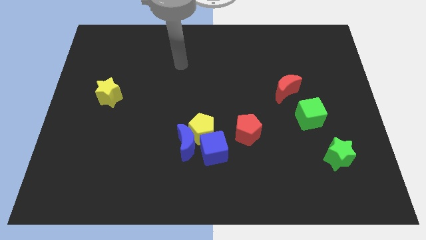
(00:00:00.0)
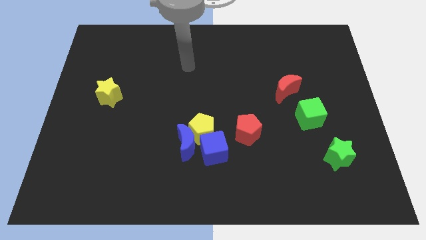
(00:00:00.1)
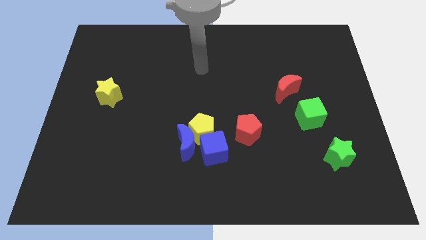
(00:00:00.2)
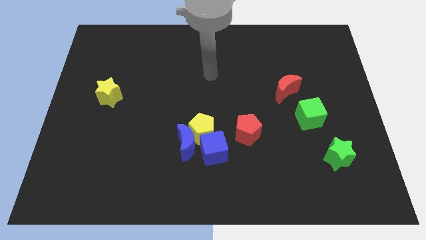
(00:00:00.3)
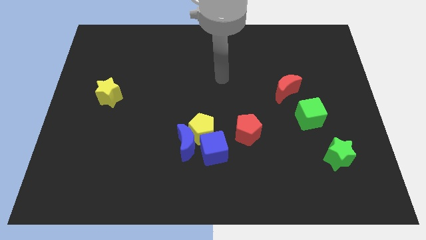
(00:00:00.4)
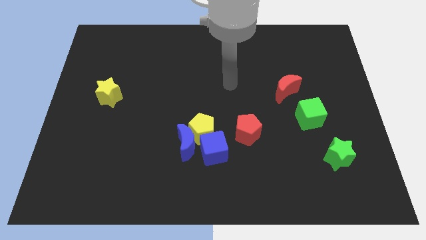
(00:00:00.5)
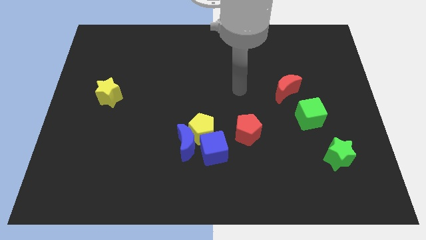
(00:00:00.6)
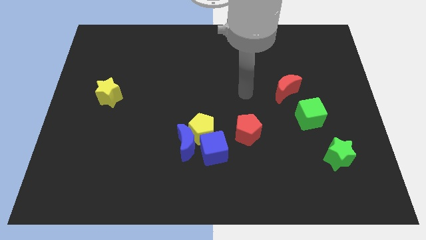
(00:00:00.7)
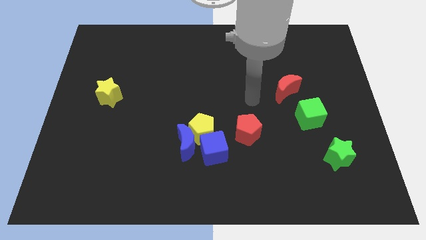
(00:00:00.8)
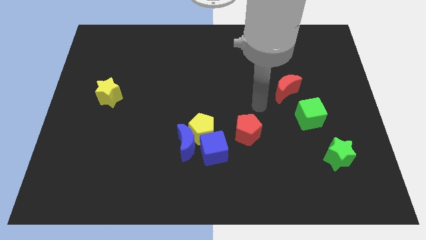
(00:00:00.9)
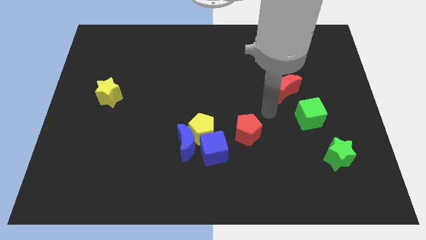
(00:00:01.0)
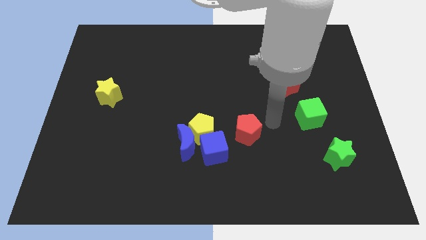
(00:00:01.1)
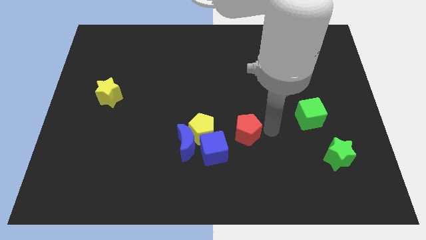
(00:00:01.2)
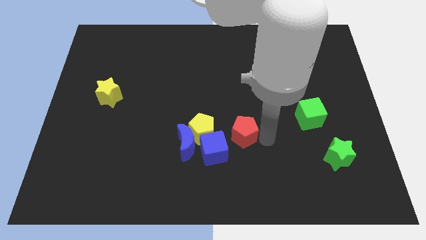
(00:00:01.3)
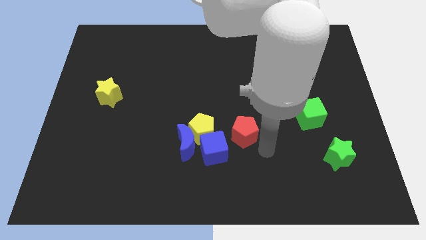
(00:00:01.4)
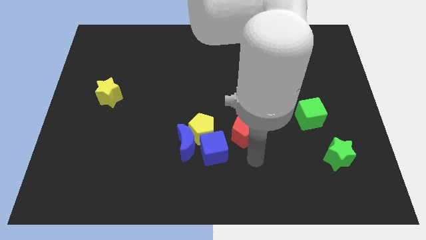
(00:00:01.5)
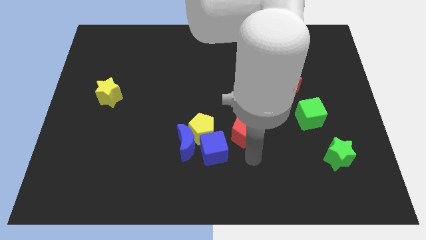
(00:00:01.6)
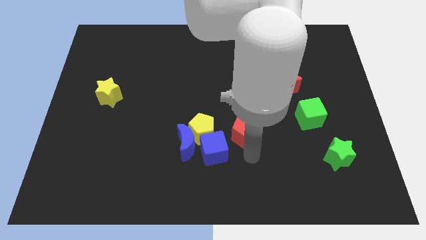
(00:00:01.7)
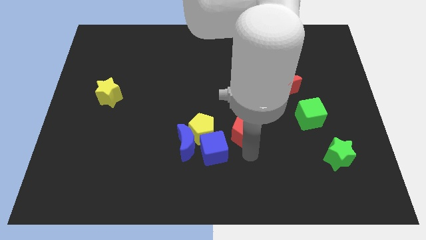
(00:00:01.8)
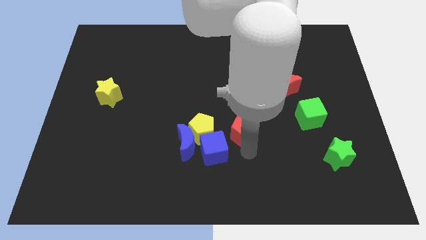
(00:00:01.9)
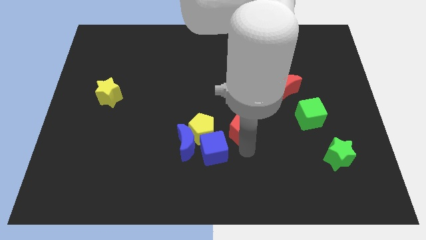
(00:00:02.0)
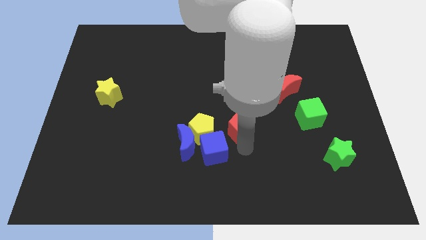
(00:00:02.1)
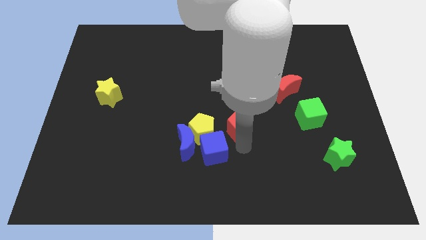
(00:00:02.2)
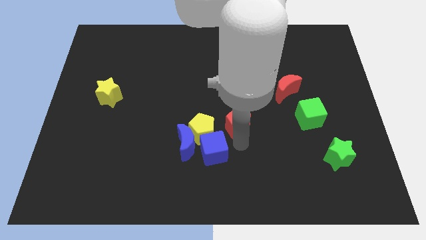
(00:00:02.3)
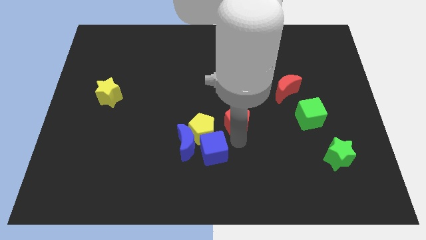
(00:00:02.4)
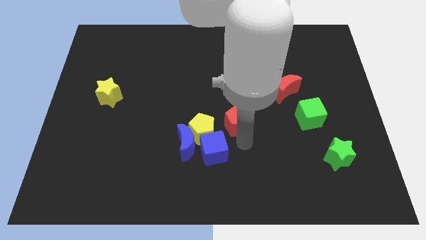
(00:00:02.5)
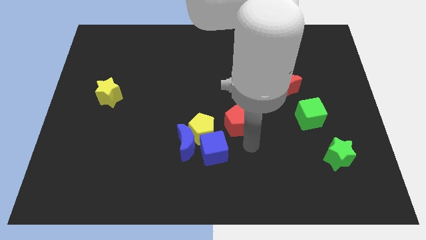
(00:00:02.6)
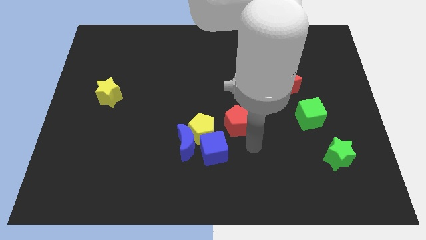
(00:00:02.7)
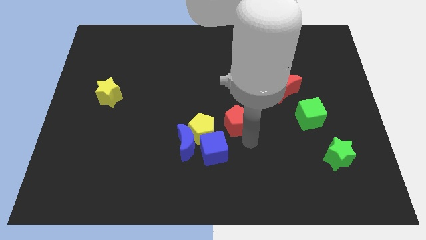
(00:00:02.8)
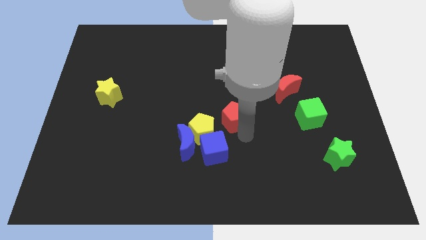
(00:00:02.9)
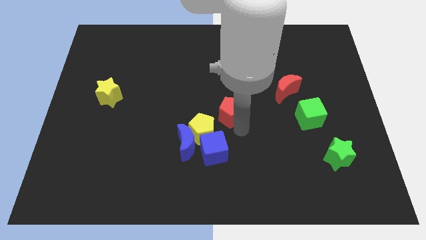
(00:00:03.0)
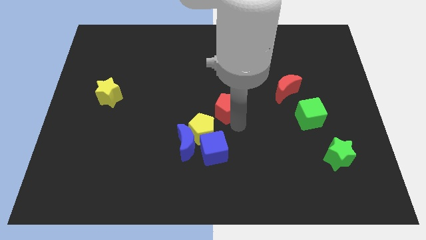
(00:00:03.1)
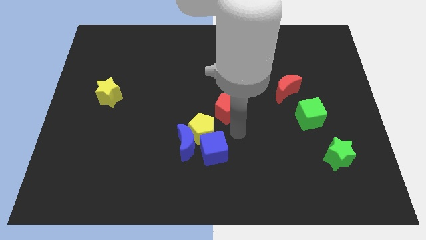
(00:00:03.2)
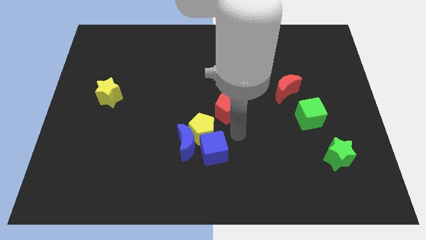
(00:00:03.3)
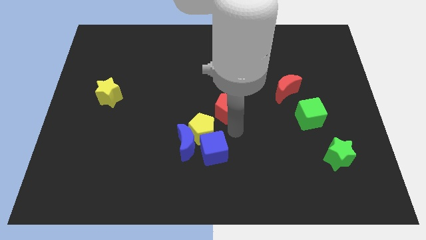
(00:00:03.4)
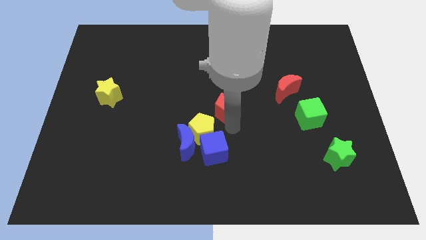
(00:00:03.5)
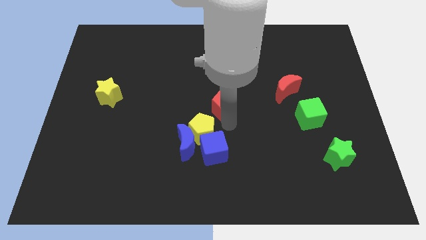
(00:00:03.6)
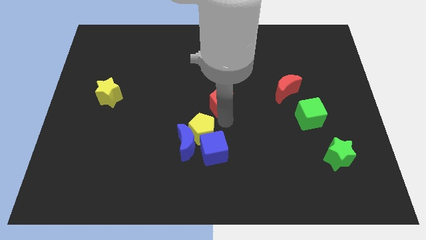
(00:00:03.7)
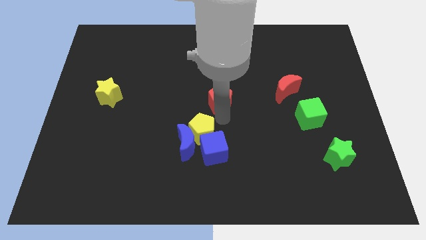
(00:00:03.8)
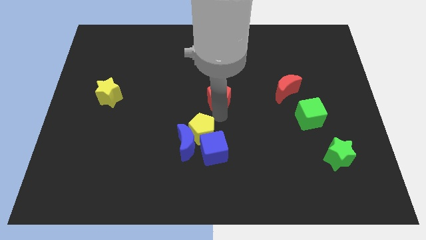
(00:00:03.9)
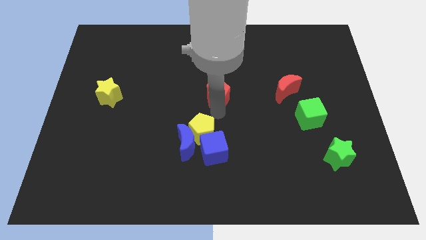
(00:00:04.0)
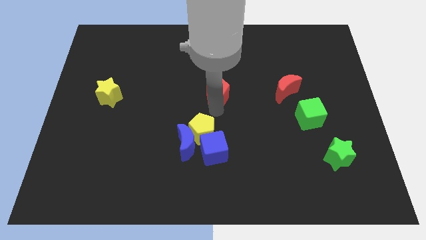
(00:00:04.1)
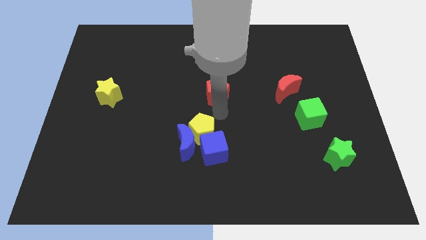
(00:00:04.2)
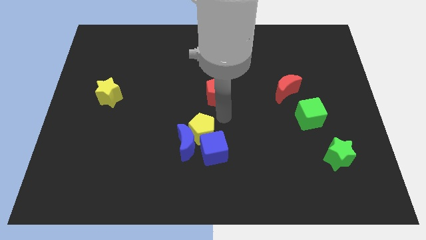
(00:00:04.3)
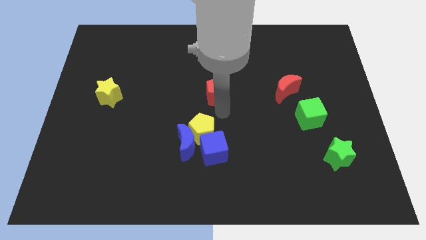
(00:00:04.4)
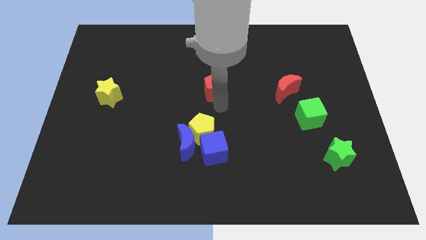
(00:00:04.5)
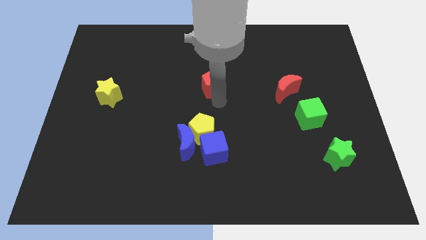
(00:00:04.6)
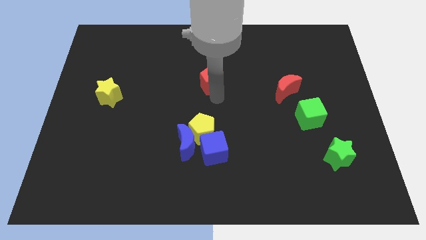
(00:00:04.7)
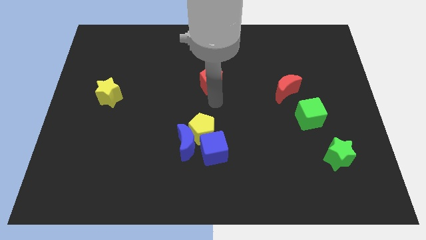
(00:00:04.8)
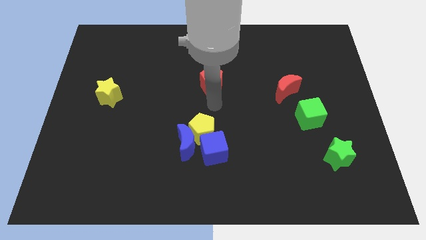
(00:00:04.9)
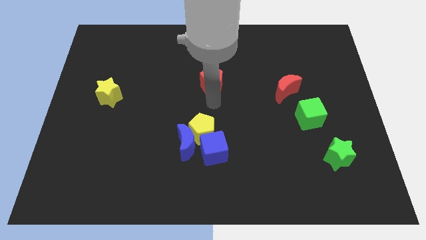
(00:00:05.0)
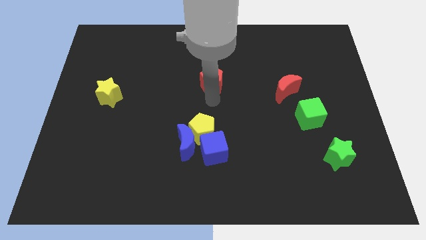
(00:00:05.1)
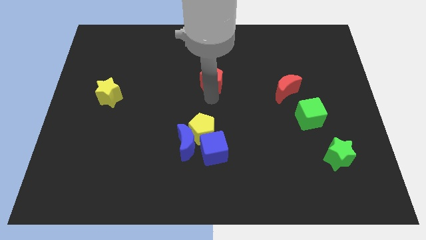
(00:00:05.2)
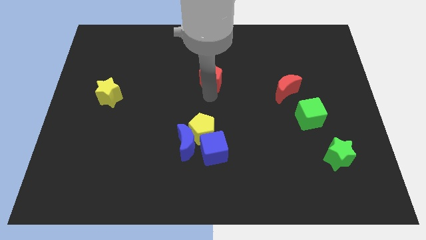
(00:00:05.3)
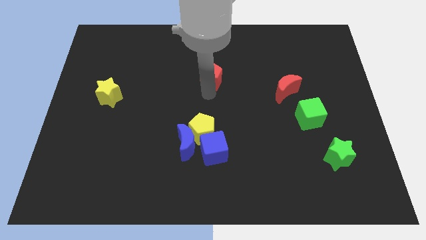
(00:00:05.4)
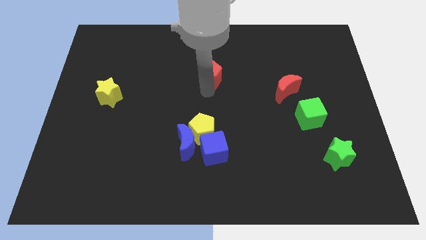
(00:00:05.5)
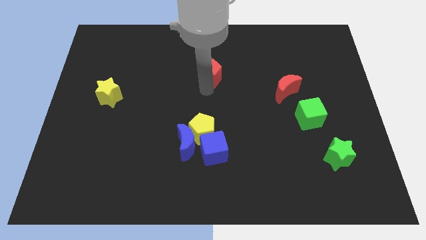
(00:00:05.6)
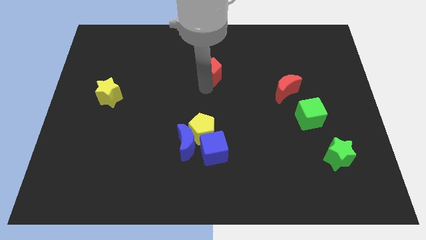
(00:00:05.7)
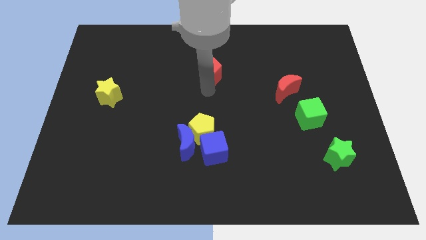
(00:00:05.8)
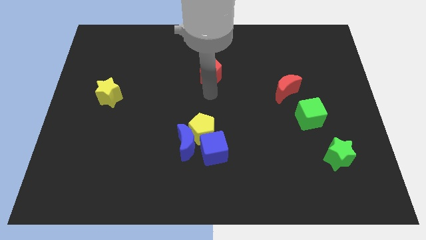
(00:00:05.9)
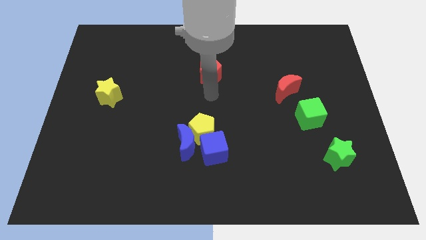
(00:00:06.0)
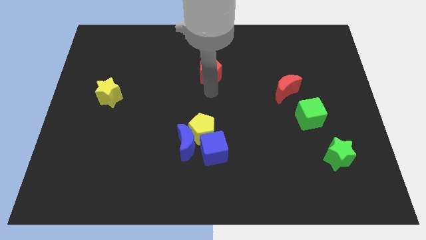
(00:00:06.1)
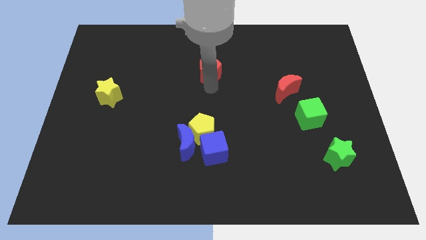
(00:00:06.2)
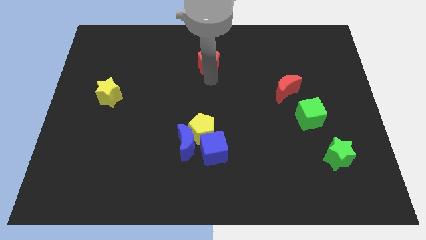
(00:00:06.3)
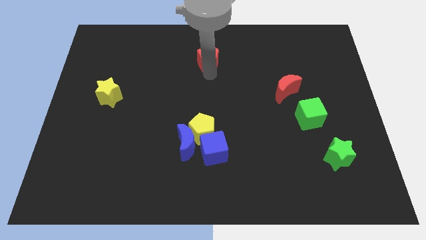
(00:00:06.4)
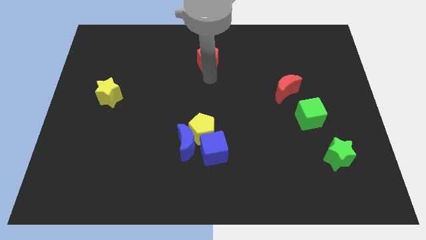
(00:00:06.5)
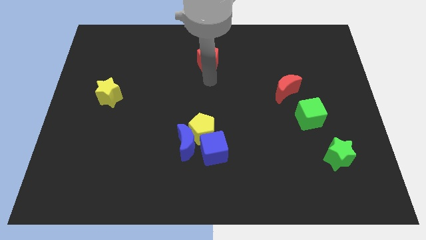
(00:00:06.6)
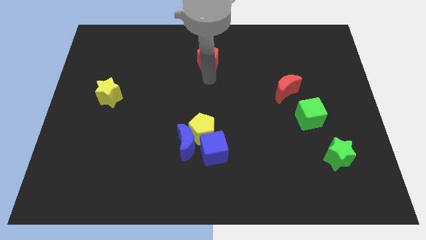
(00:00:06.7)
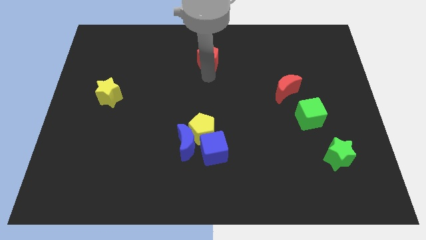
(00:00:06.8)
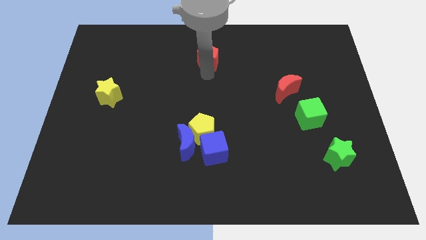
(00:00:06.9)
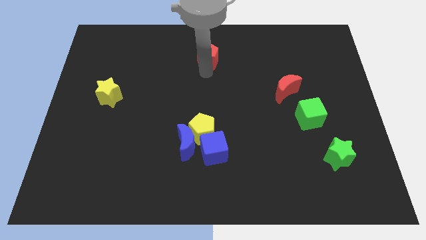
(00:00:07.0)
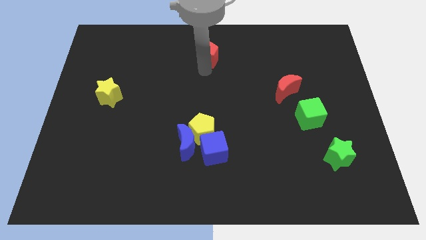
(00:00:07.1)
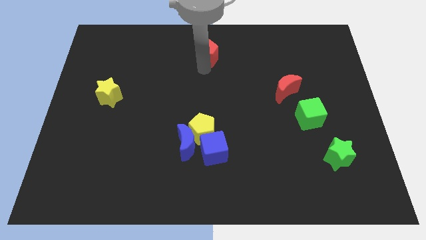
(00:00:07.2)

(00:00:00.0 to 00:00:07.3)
push the red pentagon to the towards your base
